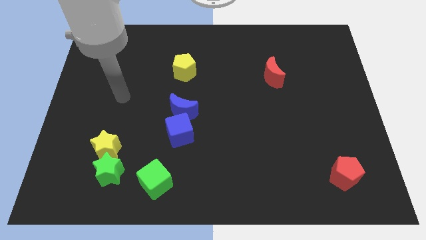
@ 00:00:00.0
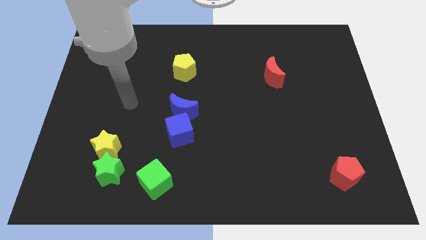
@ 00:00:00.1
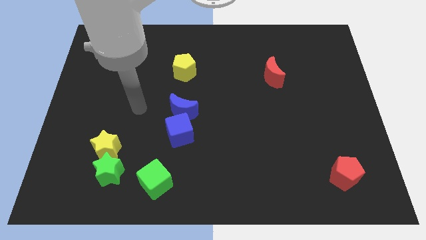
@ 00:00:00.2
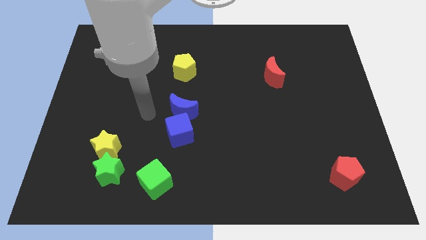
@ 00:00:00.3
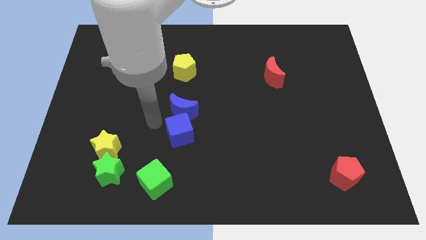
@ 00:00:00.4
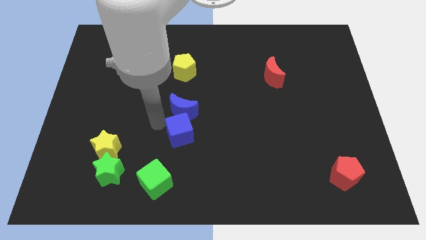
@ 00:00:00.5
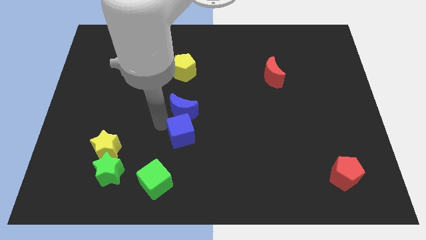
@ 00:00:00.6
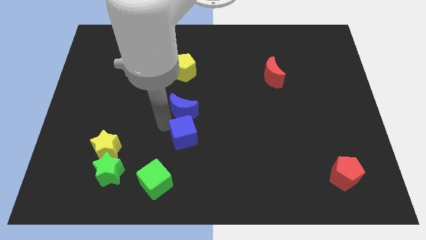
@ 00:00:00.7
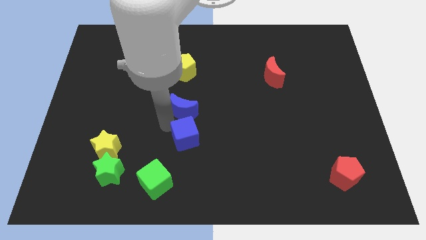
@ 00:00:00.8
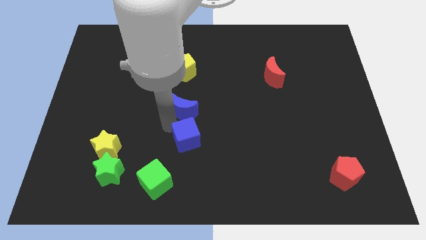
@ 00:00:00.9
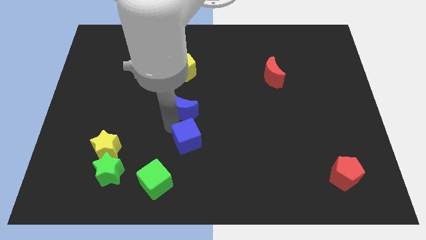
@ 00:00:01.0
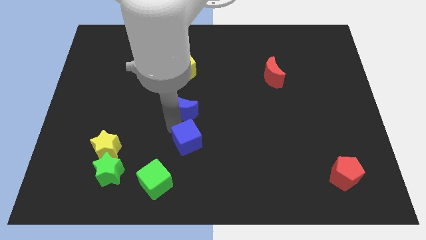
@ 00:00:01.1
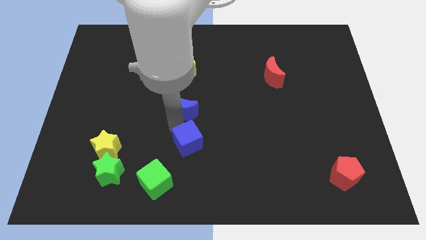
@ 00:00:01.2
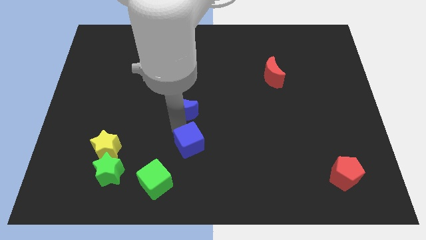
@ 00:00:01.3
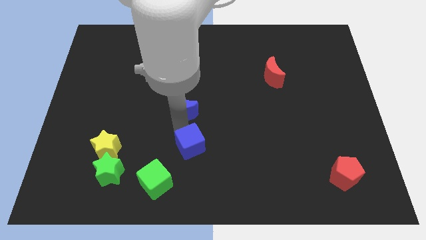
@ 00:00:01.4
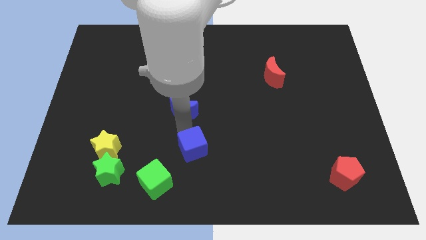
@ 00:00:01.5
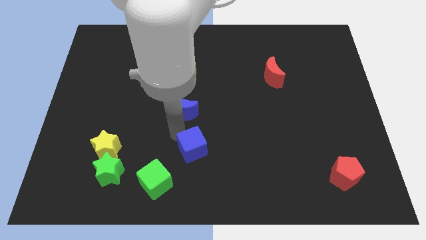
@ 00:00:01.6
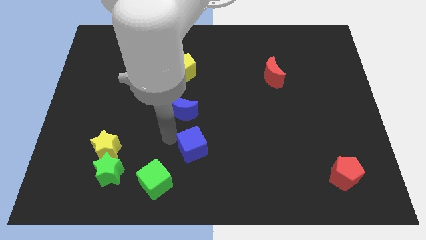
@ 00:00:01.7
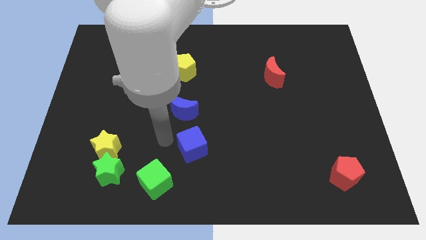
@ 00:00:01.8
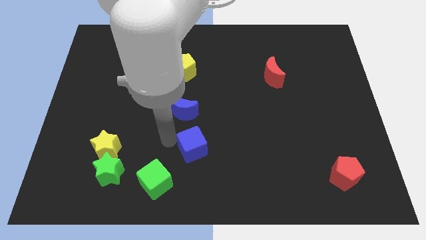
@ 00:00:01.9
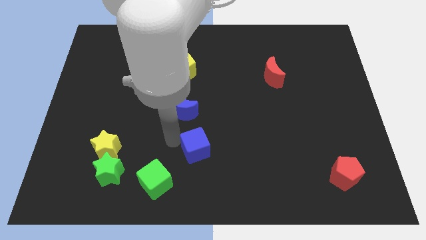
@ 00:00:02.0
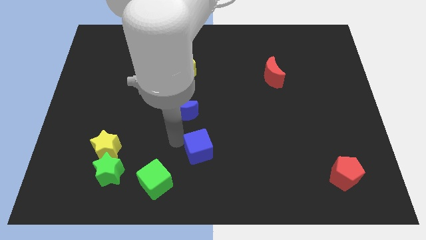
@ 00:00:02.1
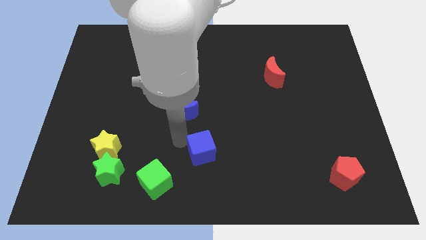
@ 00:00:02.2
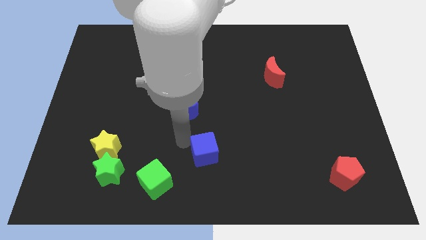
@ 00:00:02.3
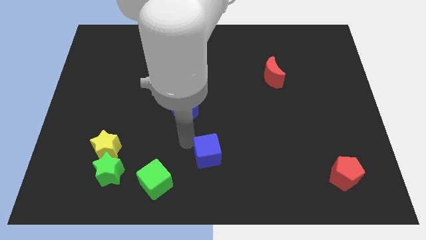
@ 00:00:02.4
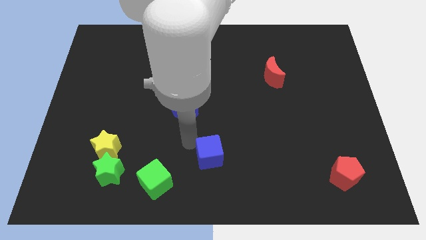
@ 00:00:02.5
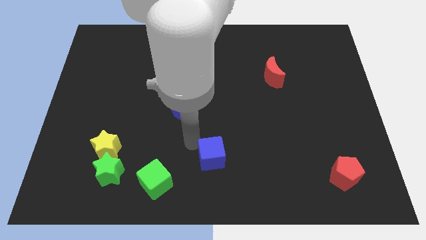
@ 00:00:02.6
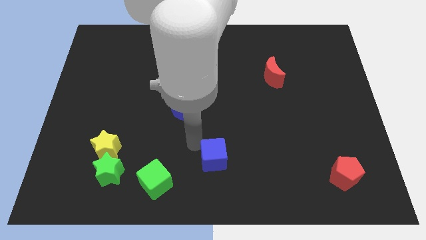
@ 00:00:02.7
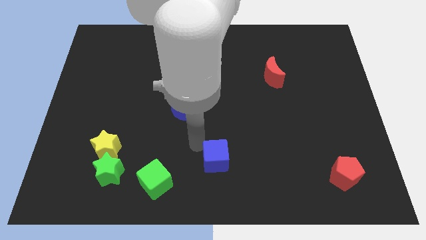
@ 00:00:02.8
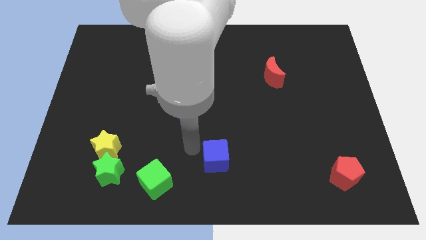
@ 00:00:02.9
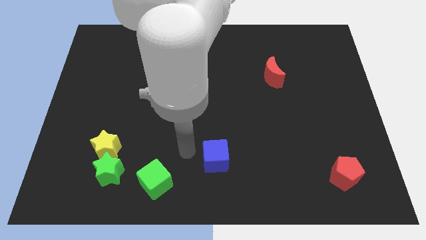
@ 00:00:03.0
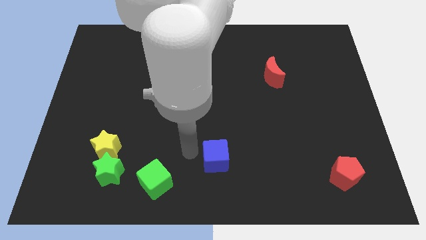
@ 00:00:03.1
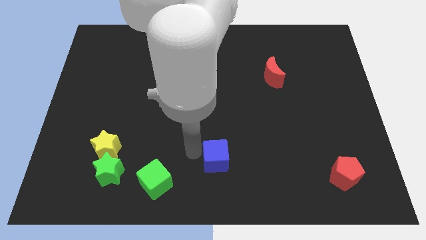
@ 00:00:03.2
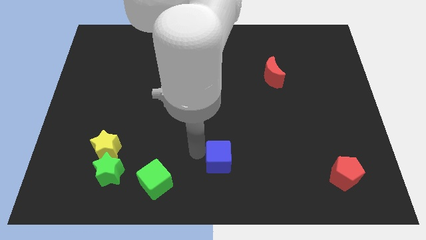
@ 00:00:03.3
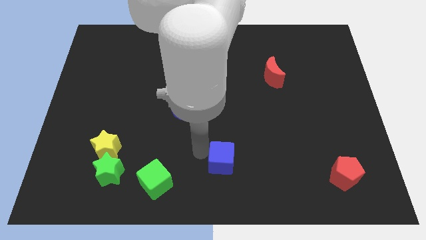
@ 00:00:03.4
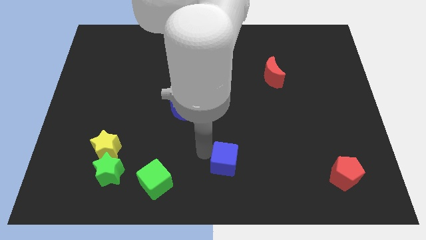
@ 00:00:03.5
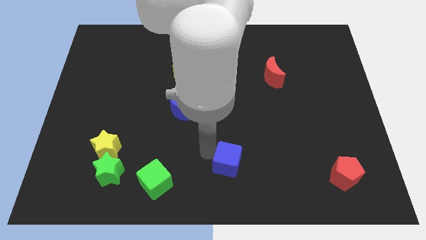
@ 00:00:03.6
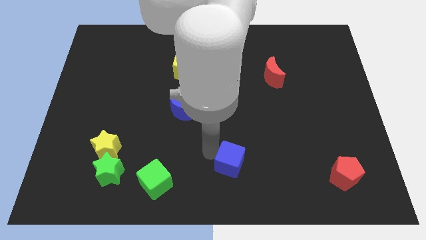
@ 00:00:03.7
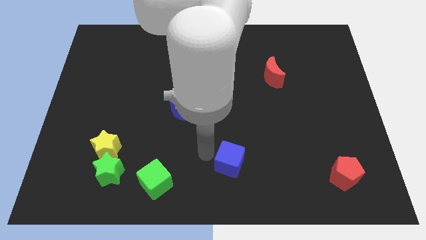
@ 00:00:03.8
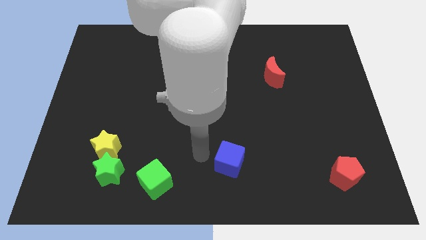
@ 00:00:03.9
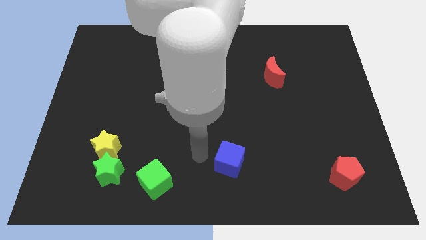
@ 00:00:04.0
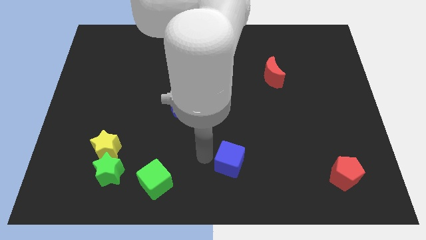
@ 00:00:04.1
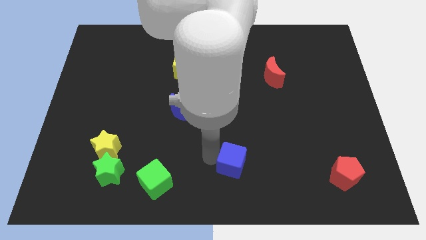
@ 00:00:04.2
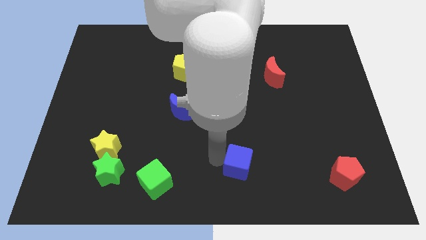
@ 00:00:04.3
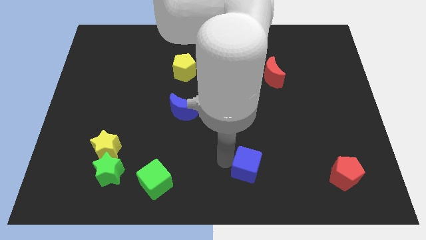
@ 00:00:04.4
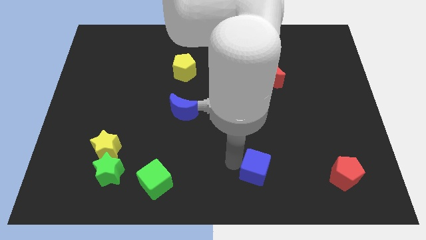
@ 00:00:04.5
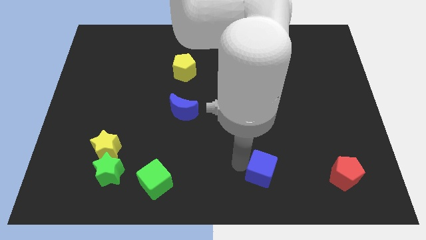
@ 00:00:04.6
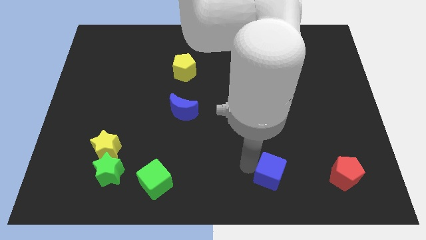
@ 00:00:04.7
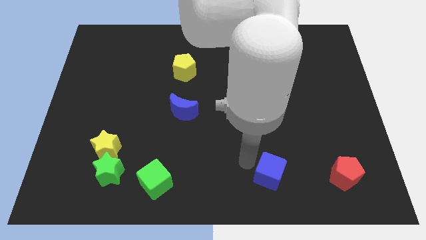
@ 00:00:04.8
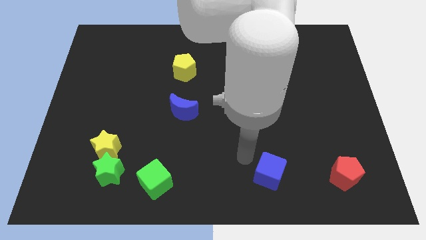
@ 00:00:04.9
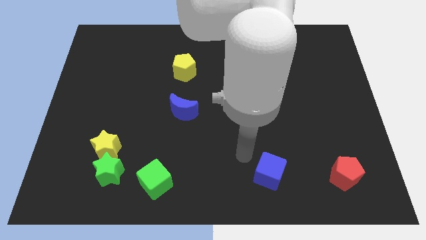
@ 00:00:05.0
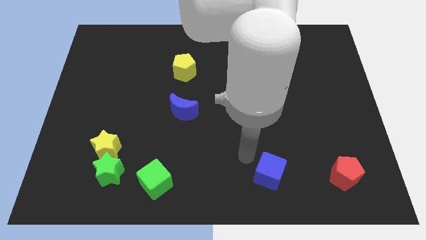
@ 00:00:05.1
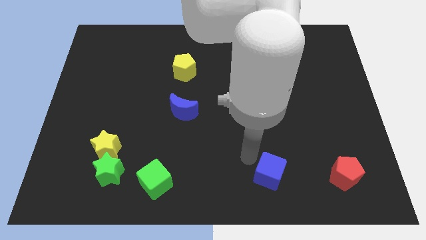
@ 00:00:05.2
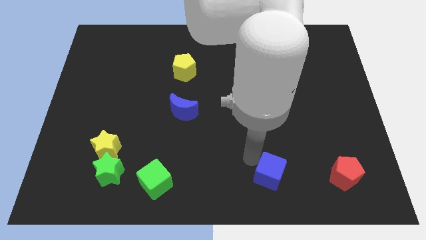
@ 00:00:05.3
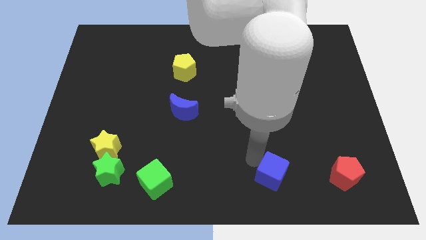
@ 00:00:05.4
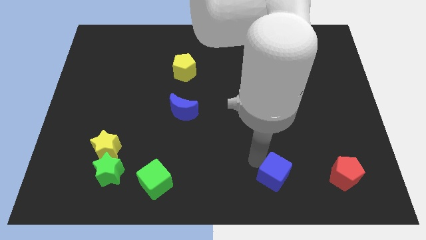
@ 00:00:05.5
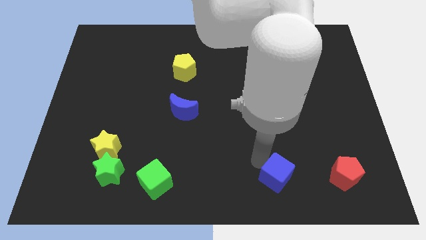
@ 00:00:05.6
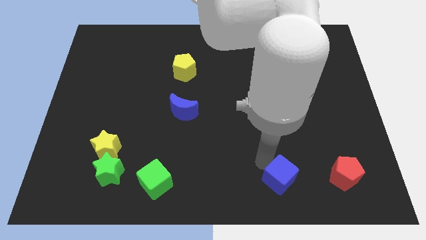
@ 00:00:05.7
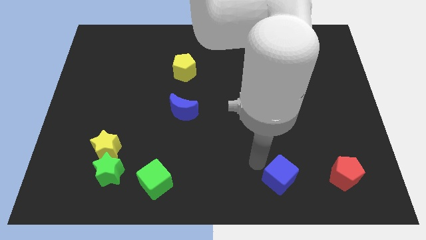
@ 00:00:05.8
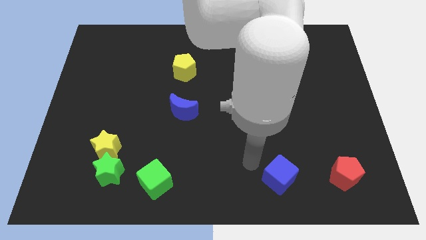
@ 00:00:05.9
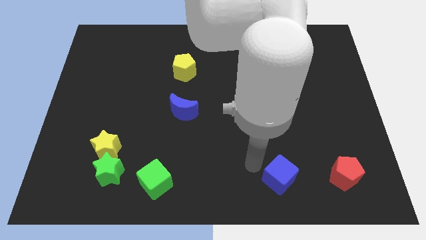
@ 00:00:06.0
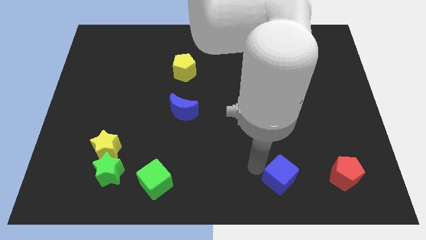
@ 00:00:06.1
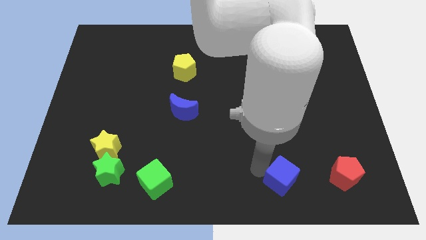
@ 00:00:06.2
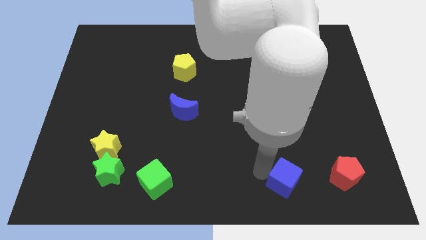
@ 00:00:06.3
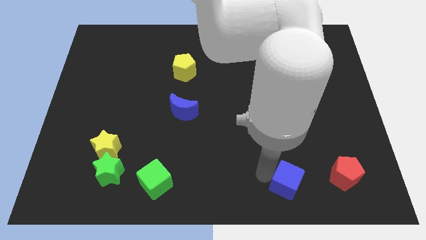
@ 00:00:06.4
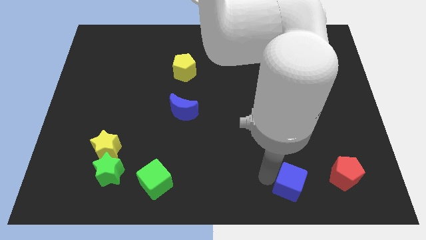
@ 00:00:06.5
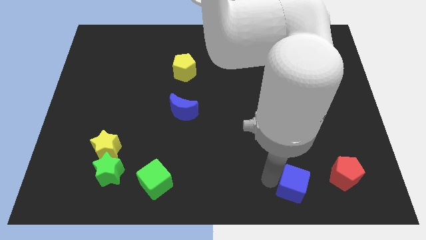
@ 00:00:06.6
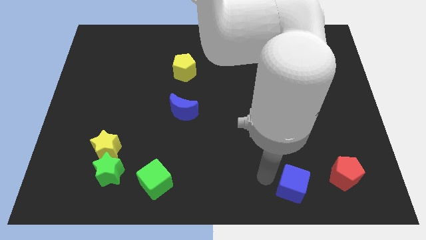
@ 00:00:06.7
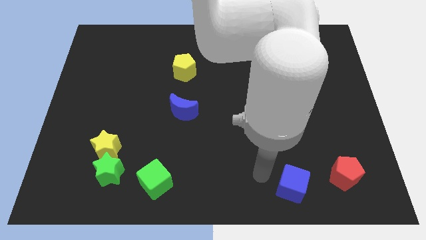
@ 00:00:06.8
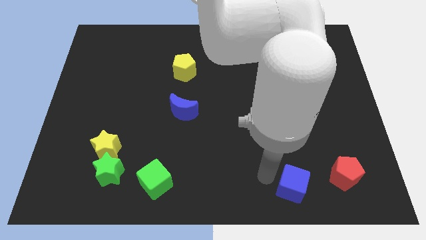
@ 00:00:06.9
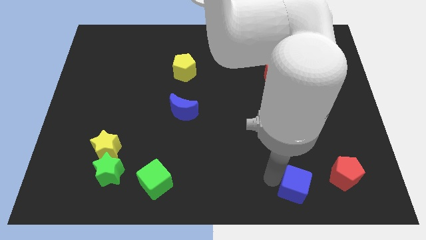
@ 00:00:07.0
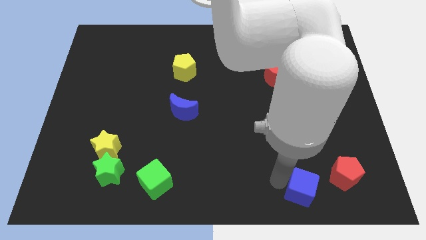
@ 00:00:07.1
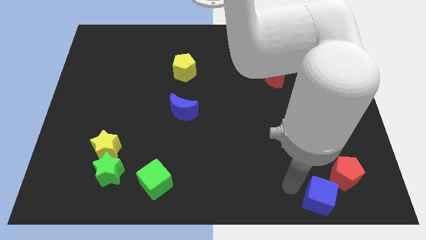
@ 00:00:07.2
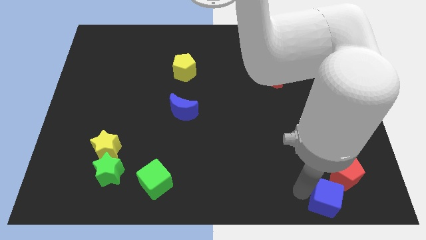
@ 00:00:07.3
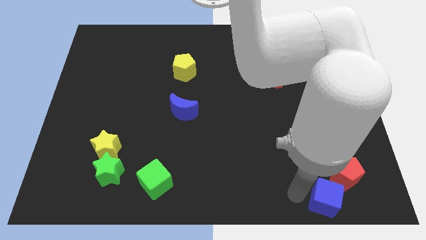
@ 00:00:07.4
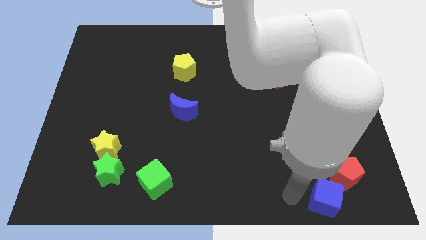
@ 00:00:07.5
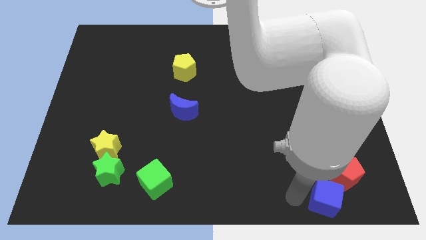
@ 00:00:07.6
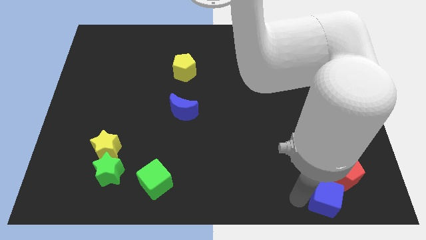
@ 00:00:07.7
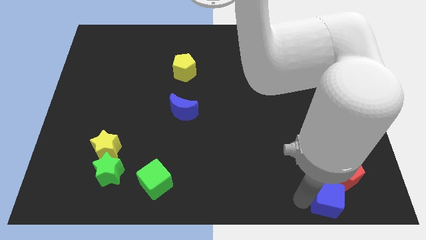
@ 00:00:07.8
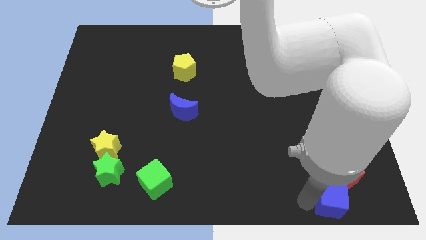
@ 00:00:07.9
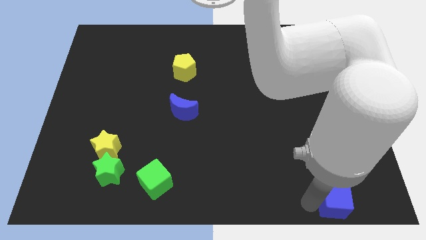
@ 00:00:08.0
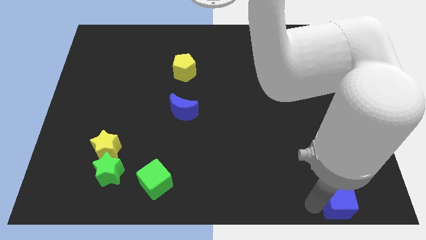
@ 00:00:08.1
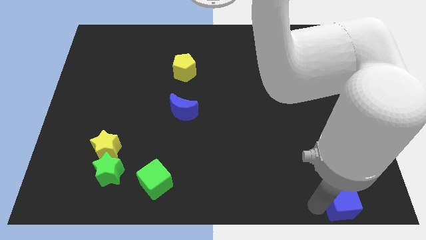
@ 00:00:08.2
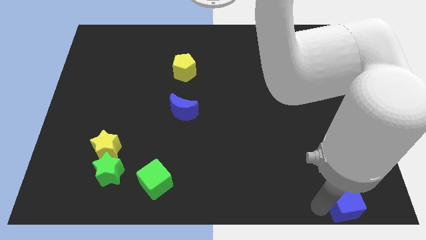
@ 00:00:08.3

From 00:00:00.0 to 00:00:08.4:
move the blue cube to the bottom right corner
